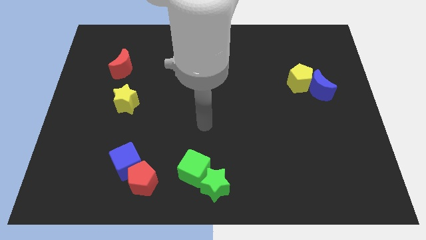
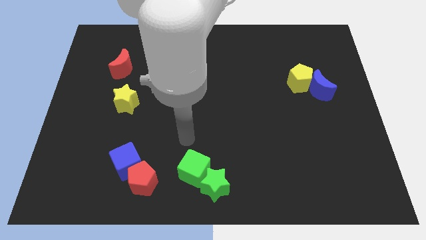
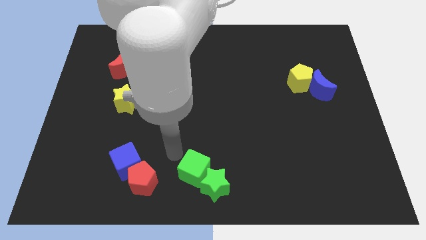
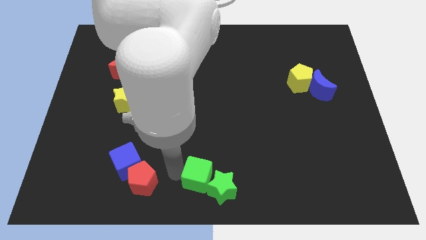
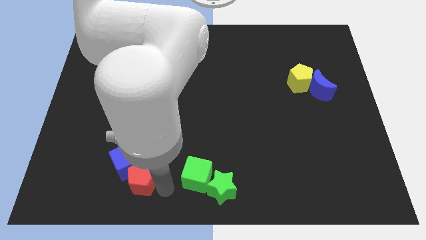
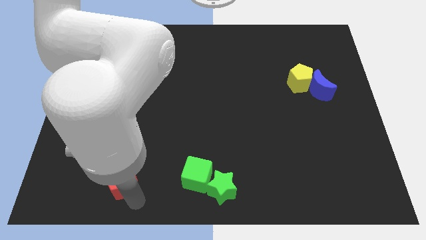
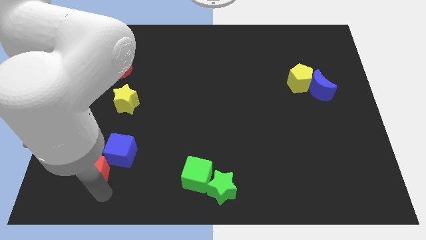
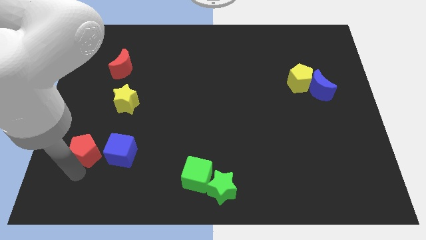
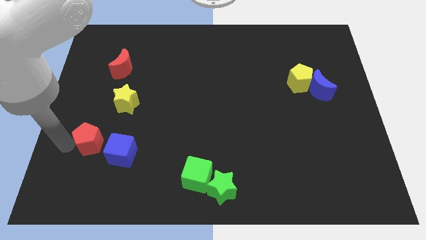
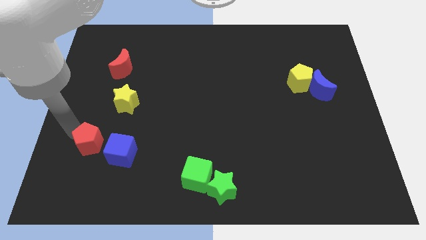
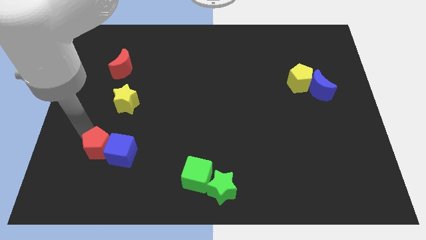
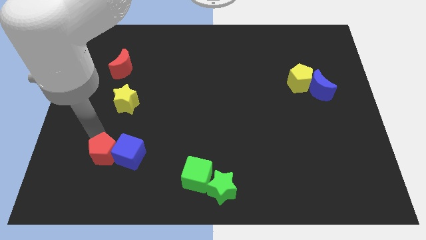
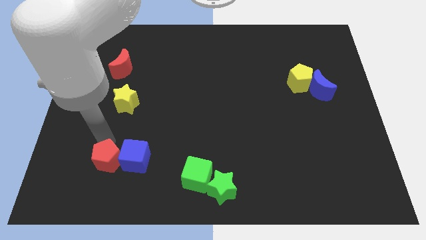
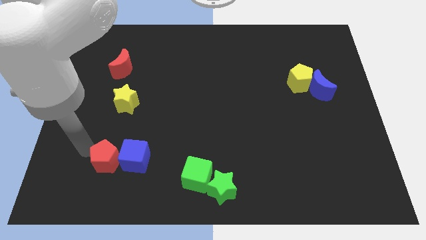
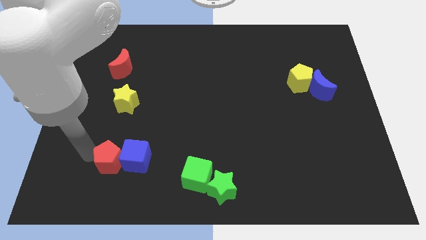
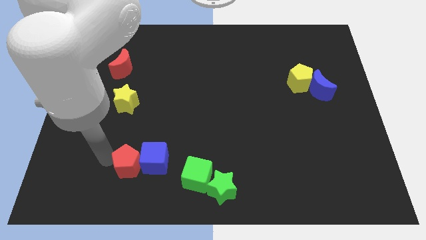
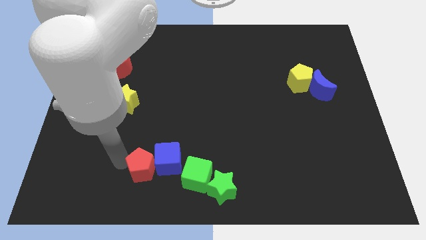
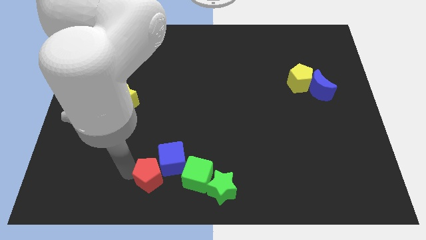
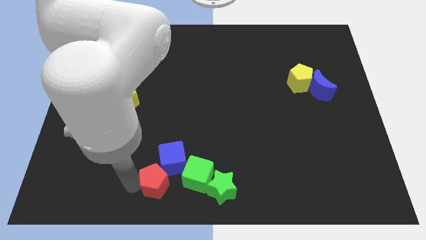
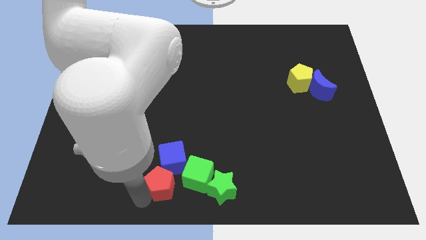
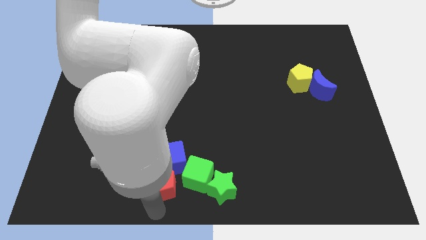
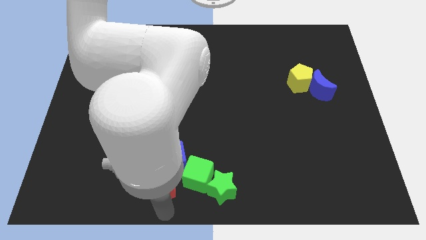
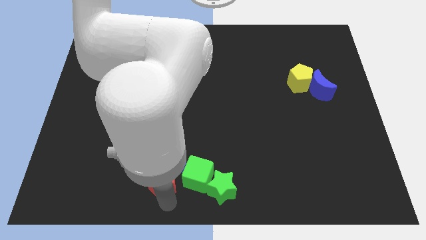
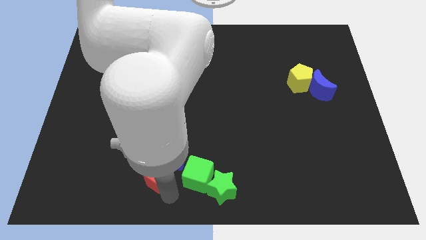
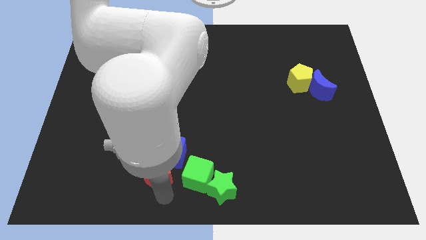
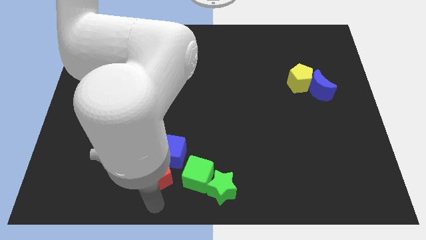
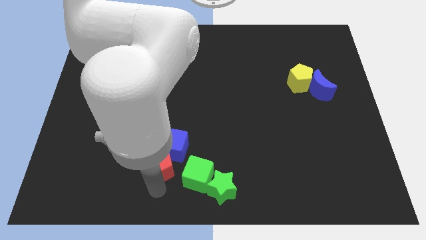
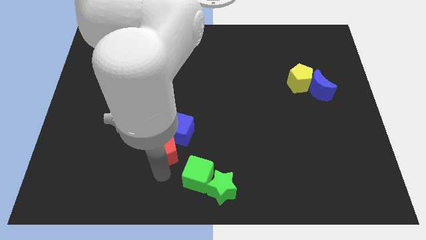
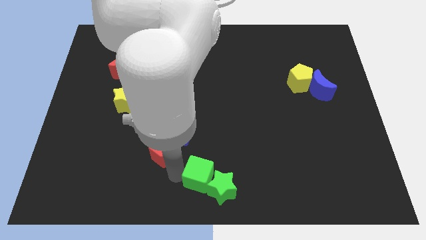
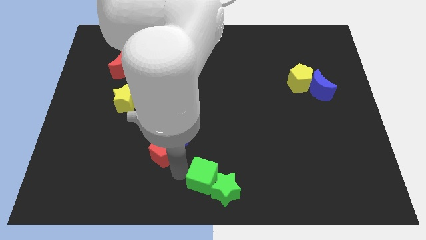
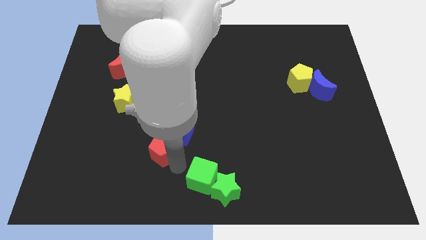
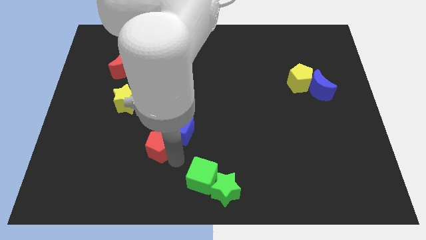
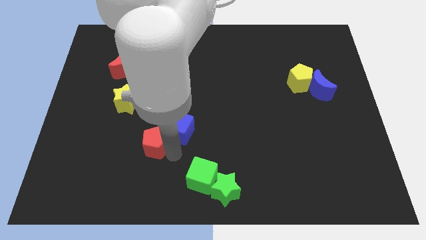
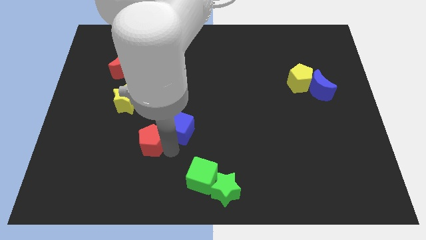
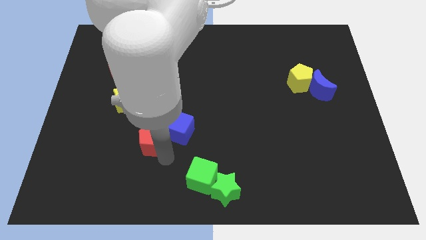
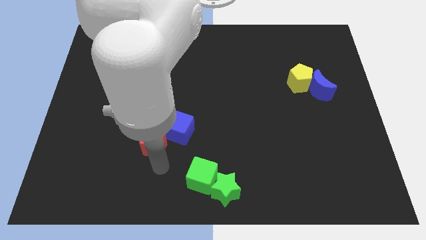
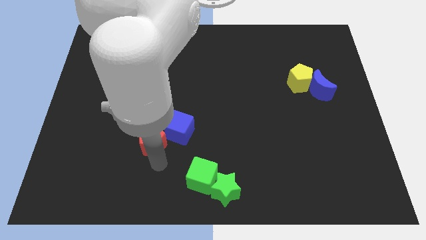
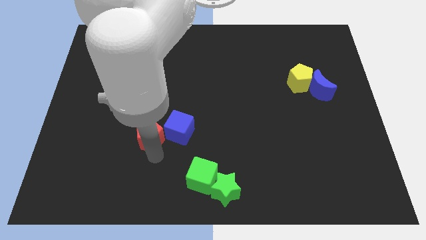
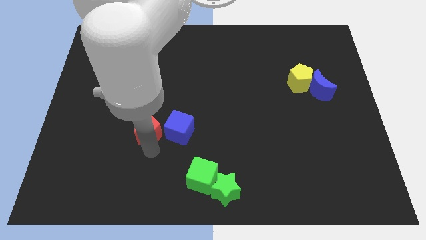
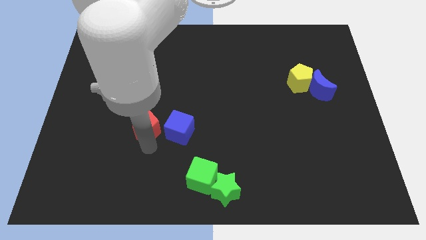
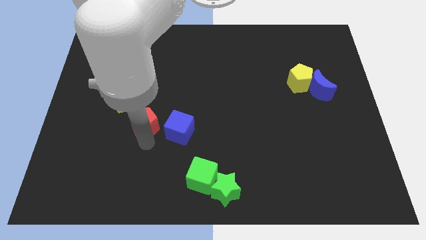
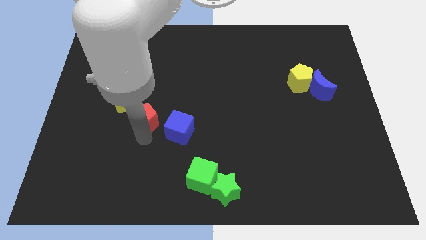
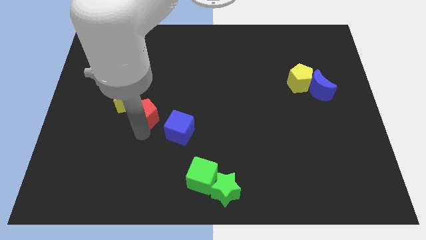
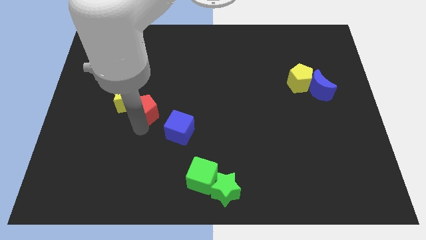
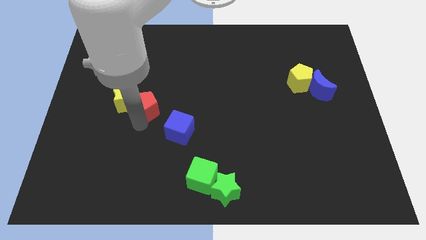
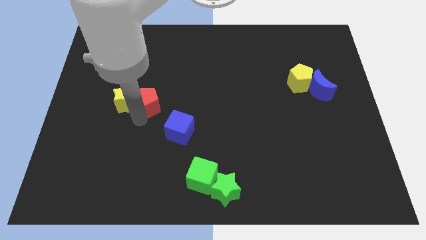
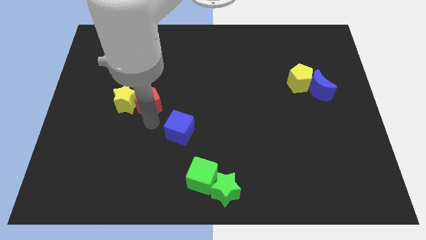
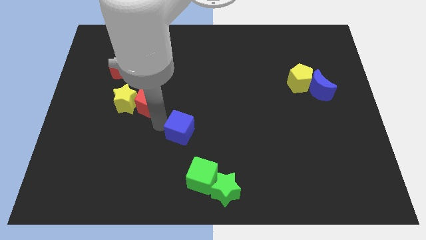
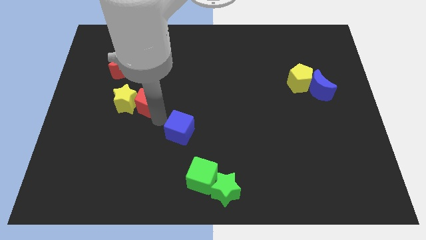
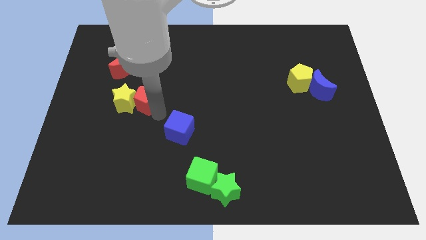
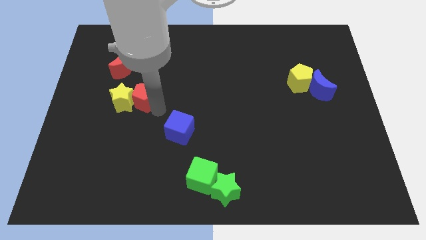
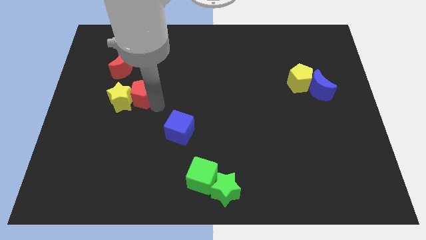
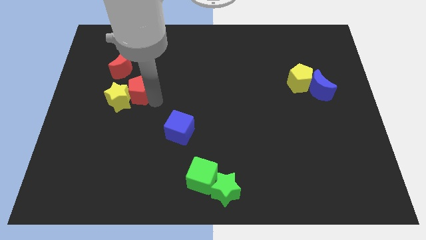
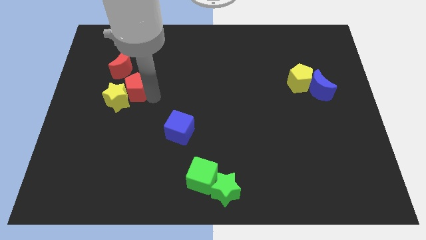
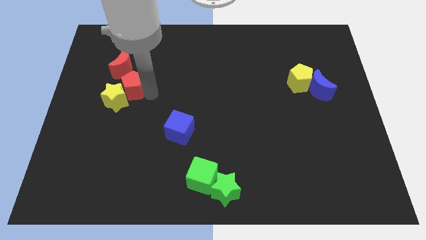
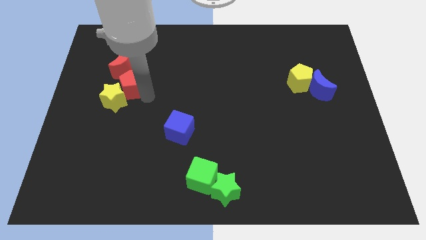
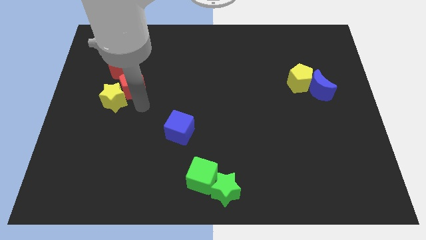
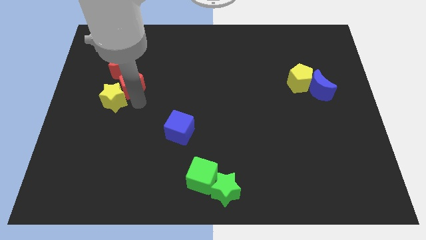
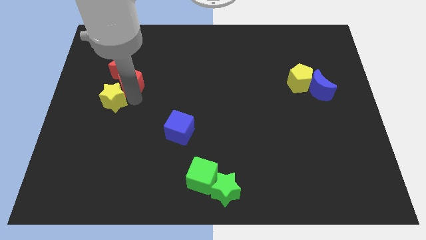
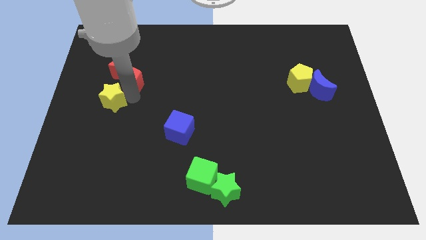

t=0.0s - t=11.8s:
push the red pentagon to the red moon
